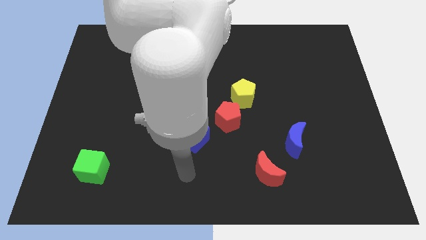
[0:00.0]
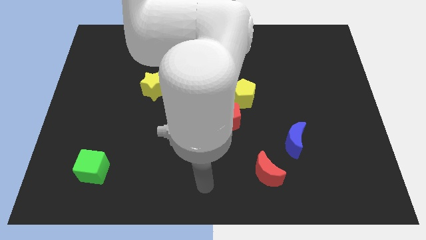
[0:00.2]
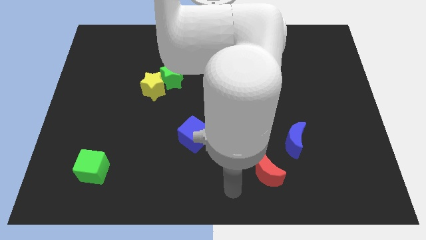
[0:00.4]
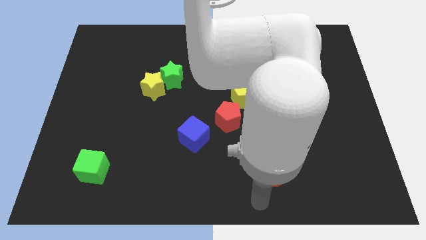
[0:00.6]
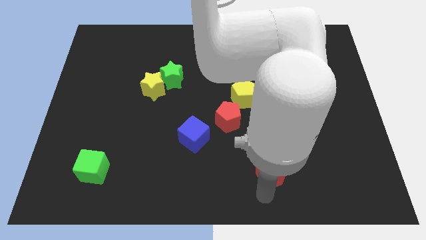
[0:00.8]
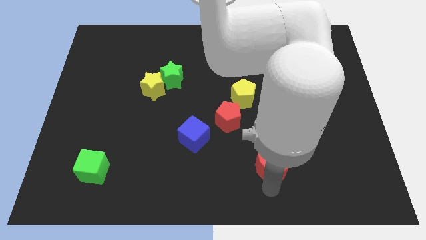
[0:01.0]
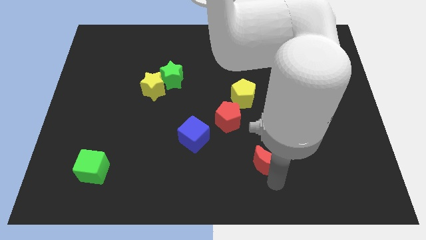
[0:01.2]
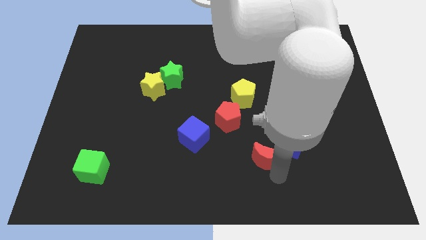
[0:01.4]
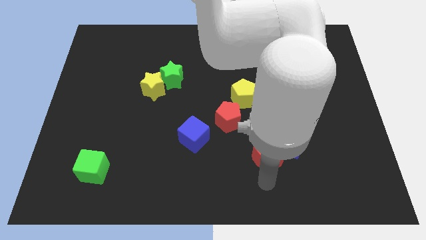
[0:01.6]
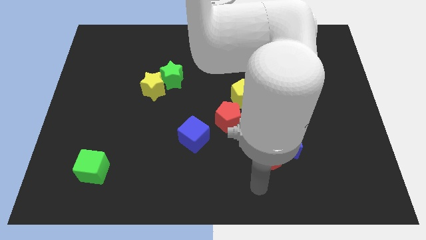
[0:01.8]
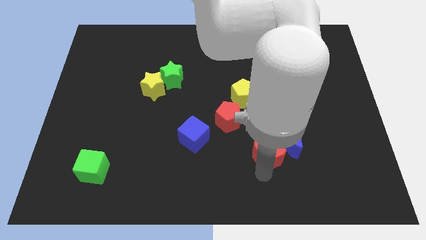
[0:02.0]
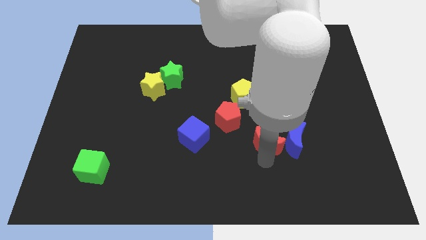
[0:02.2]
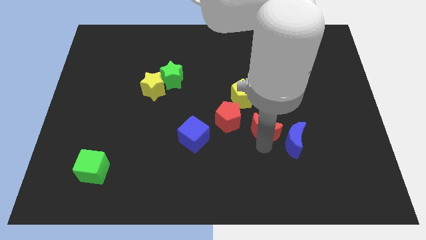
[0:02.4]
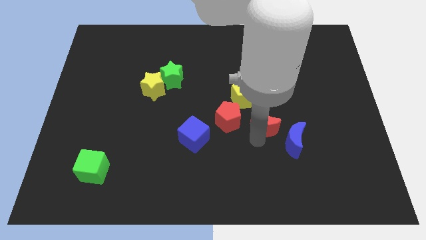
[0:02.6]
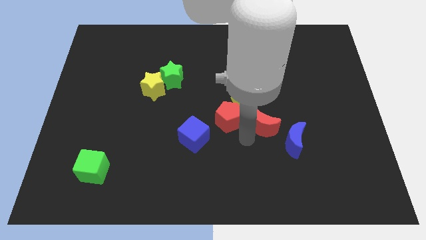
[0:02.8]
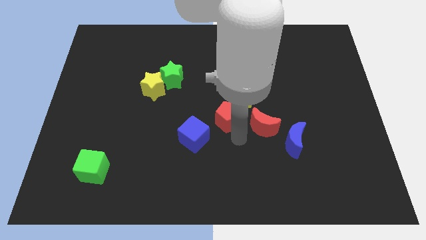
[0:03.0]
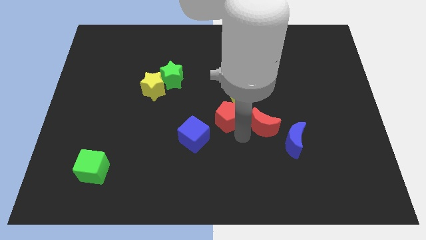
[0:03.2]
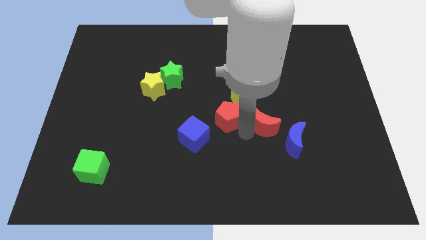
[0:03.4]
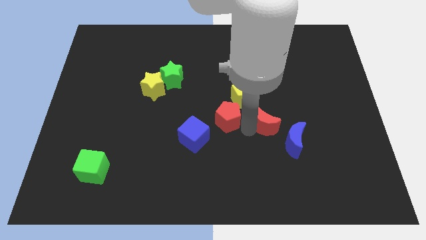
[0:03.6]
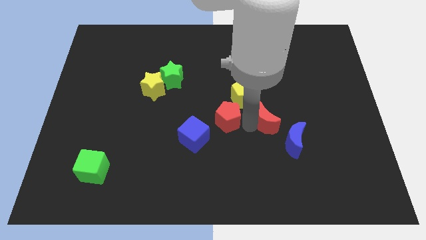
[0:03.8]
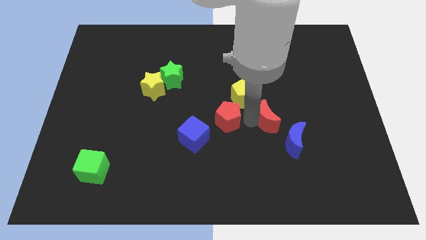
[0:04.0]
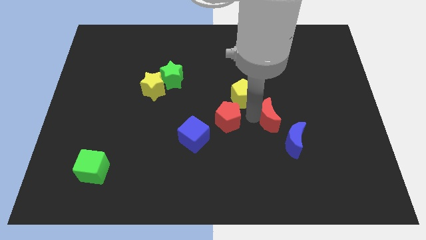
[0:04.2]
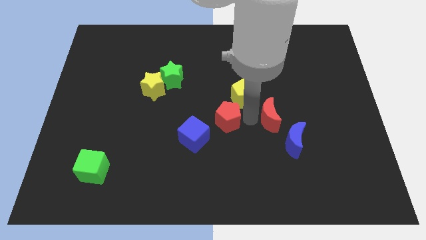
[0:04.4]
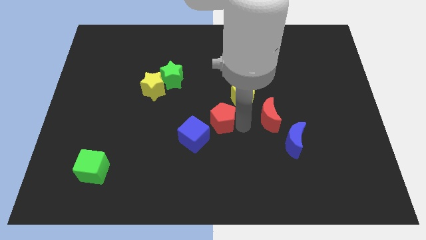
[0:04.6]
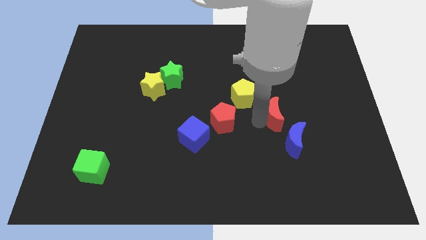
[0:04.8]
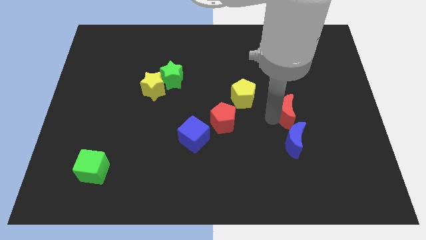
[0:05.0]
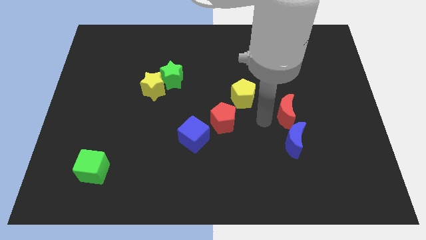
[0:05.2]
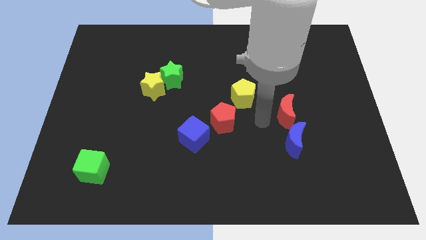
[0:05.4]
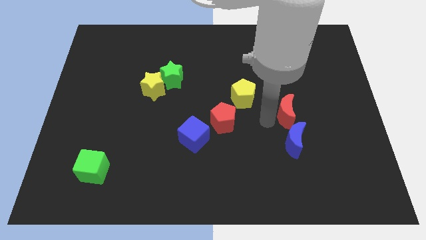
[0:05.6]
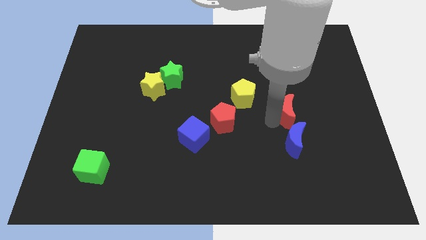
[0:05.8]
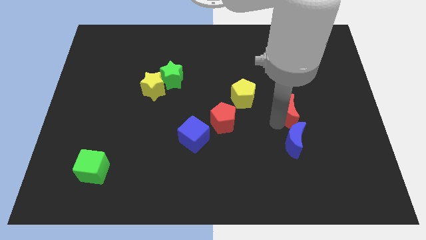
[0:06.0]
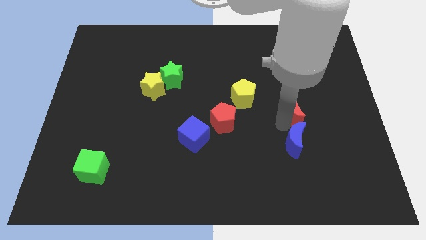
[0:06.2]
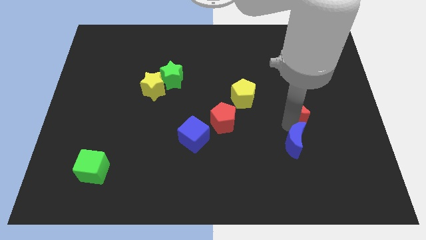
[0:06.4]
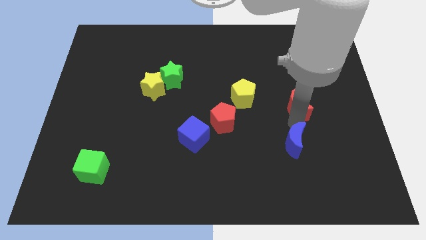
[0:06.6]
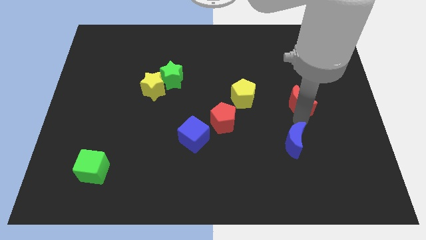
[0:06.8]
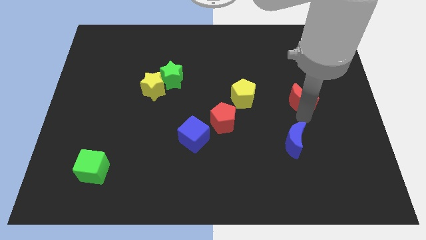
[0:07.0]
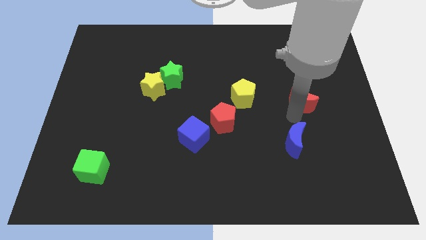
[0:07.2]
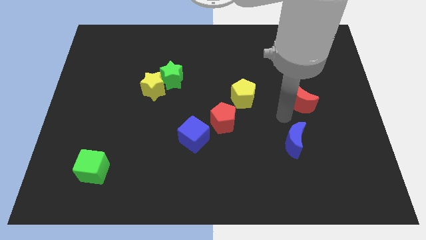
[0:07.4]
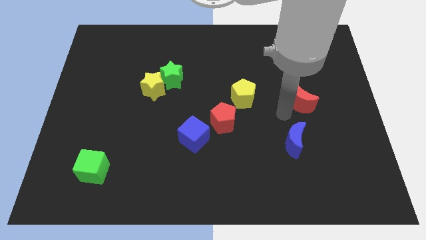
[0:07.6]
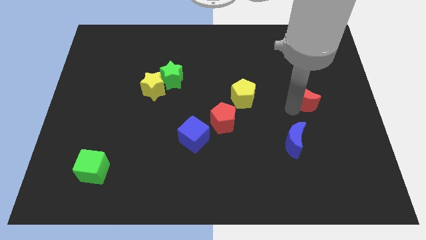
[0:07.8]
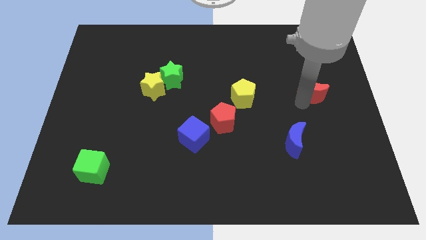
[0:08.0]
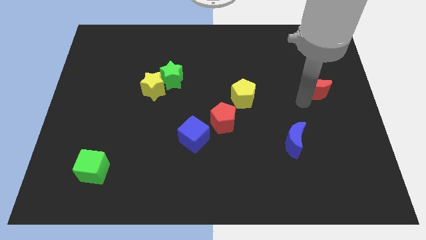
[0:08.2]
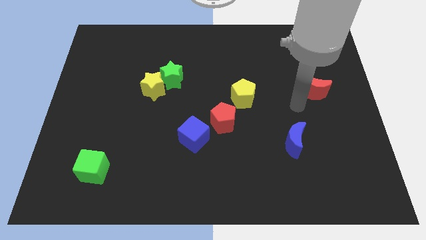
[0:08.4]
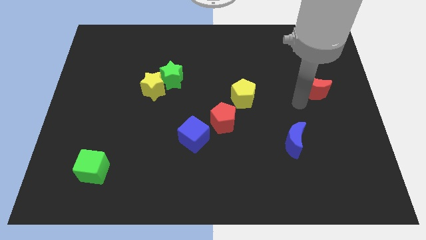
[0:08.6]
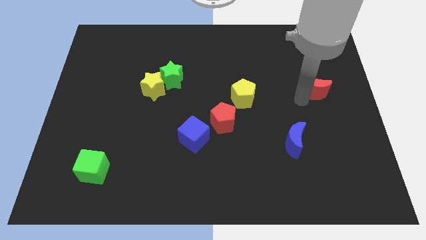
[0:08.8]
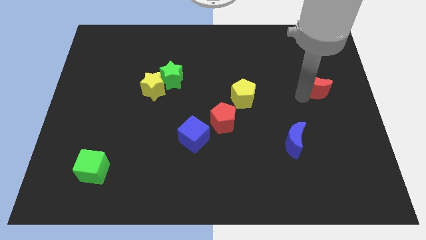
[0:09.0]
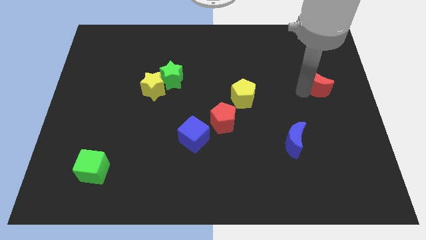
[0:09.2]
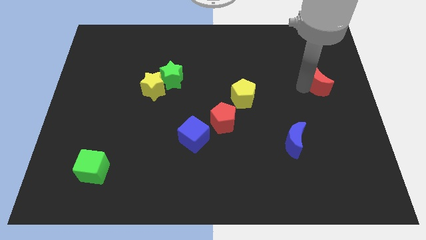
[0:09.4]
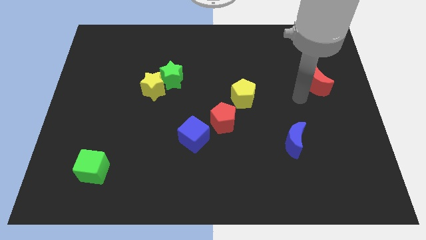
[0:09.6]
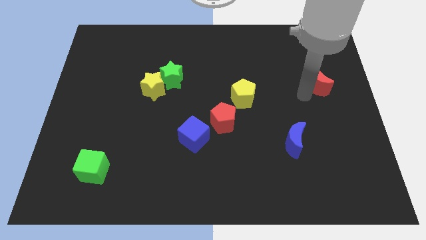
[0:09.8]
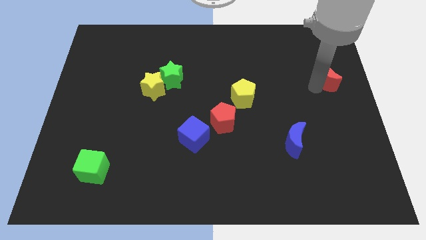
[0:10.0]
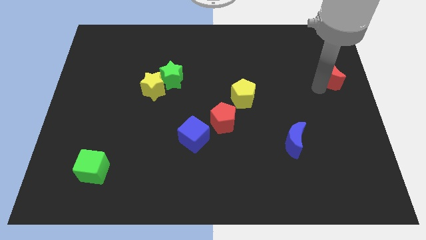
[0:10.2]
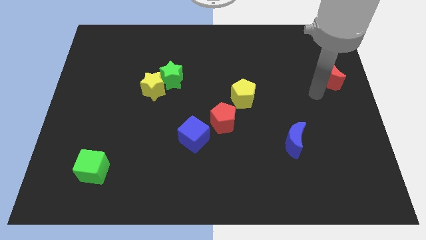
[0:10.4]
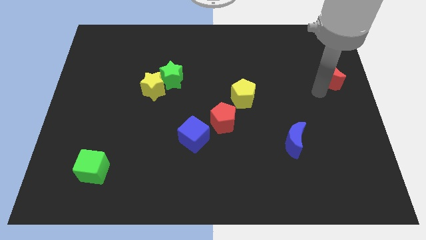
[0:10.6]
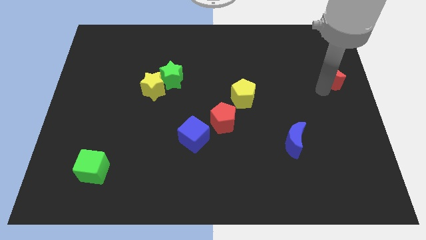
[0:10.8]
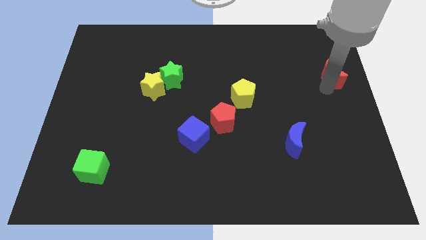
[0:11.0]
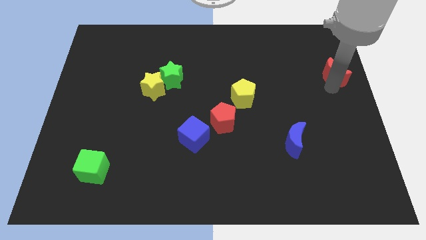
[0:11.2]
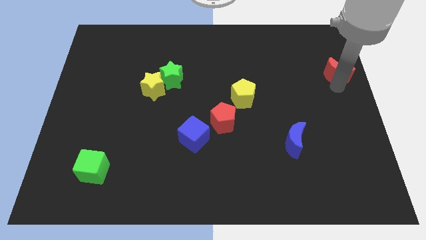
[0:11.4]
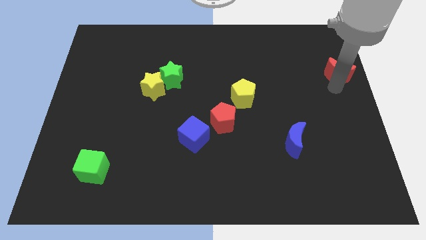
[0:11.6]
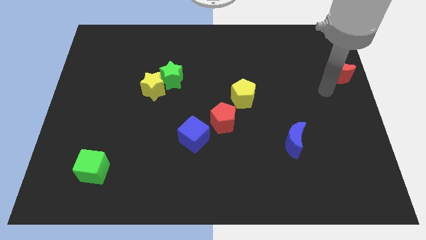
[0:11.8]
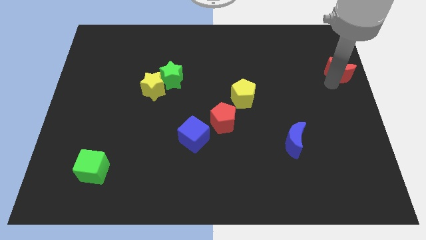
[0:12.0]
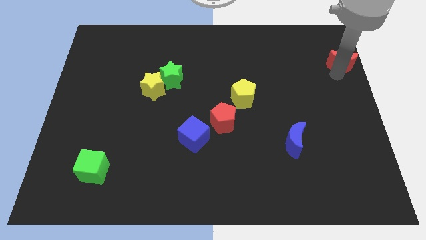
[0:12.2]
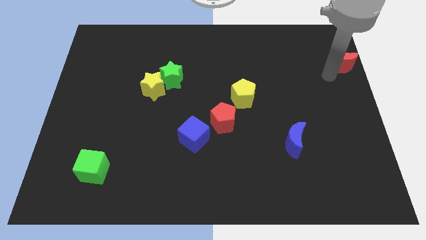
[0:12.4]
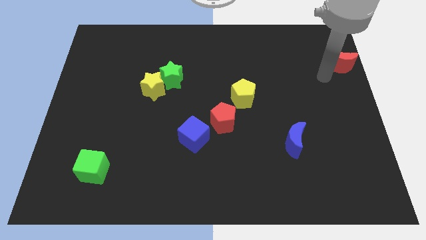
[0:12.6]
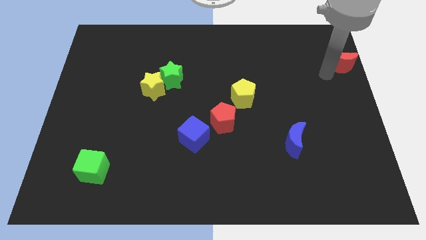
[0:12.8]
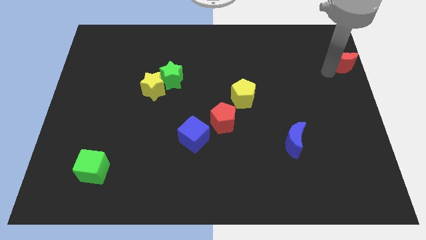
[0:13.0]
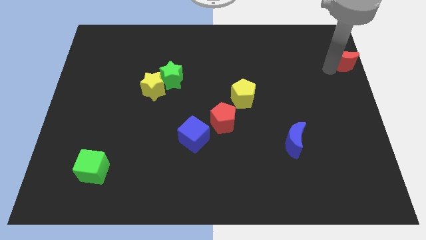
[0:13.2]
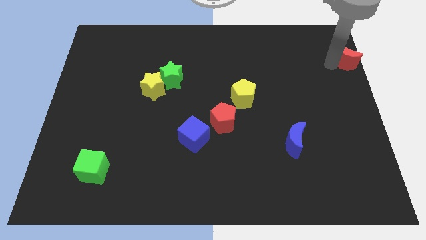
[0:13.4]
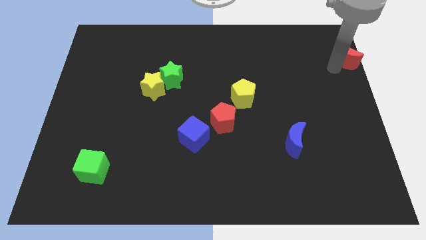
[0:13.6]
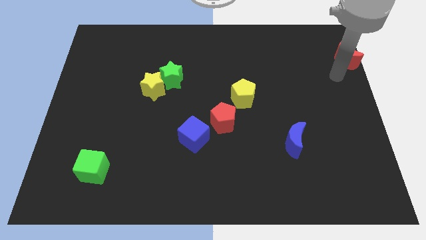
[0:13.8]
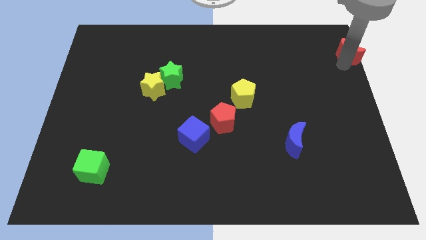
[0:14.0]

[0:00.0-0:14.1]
move the red moon to the upper right corner
